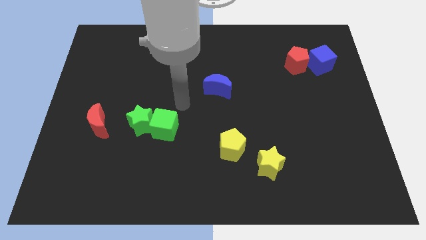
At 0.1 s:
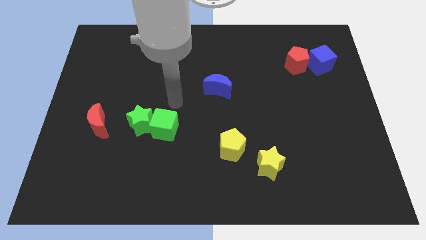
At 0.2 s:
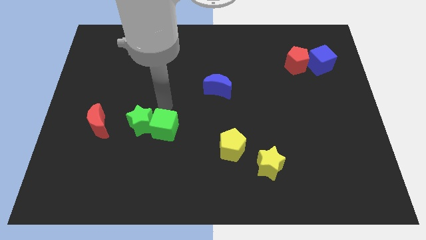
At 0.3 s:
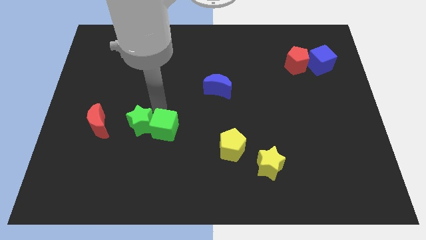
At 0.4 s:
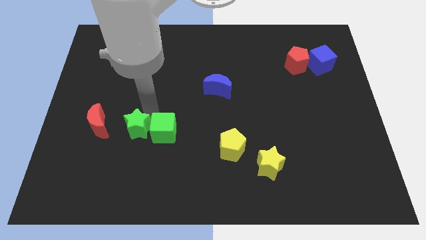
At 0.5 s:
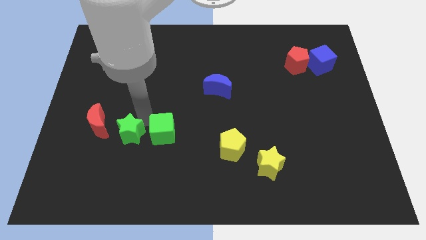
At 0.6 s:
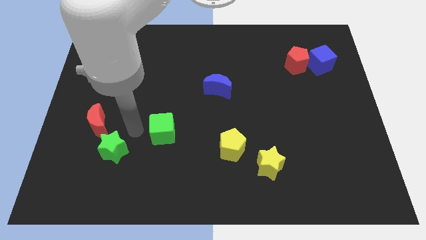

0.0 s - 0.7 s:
move the green cube away from the green star

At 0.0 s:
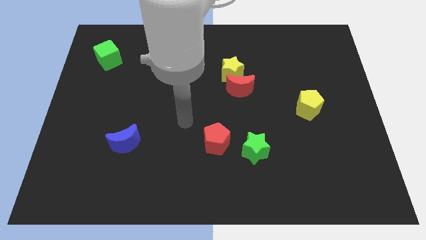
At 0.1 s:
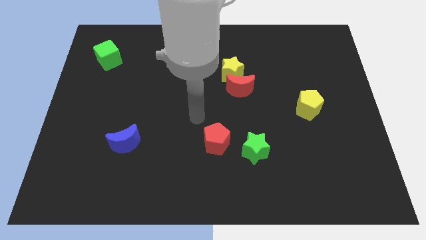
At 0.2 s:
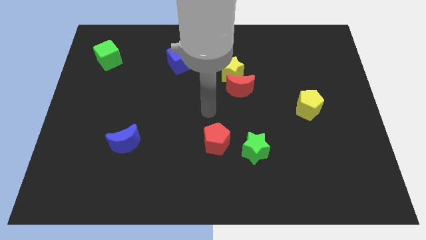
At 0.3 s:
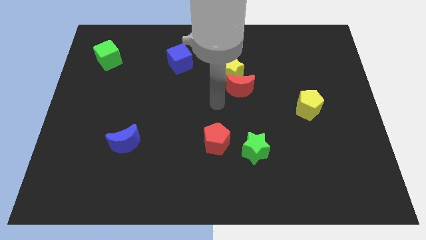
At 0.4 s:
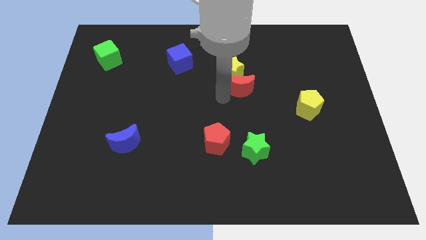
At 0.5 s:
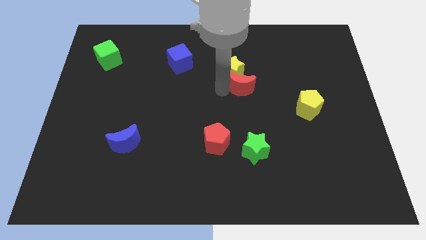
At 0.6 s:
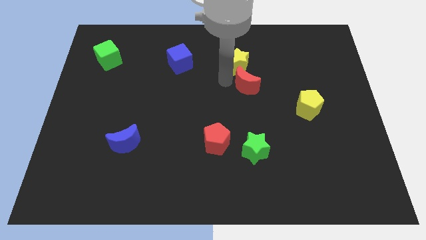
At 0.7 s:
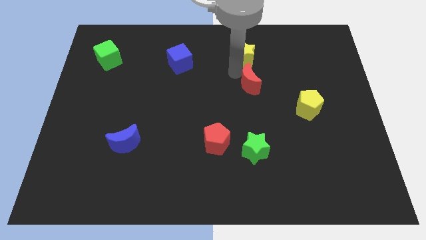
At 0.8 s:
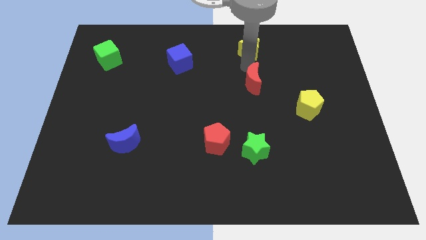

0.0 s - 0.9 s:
separate the red moon from the yellow star

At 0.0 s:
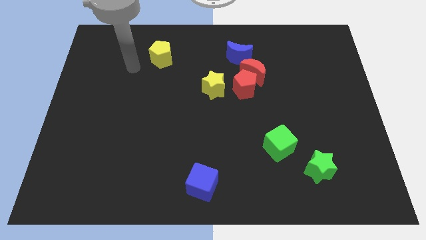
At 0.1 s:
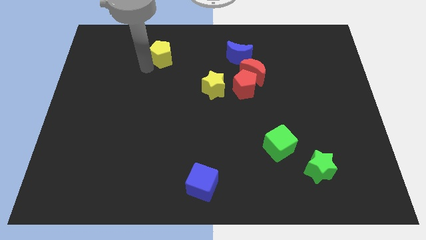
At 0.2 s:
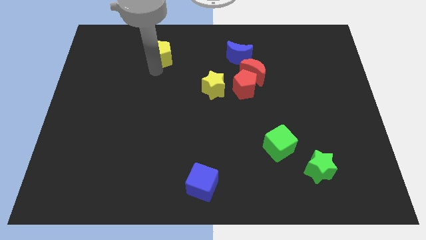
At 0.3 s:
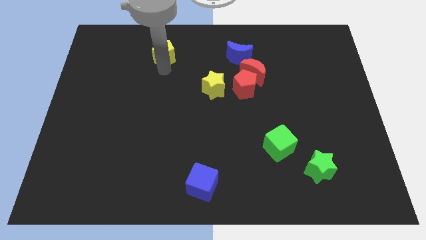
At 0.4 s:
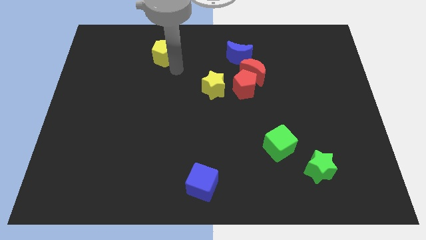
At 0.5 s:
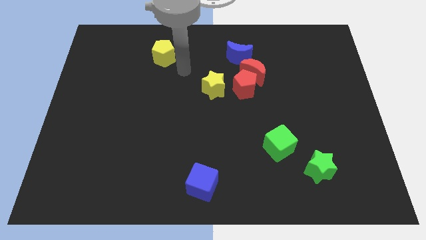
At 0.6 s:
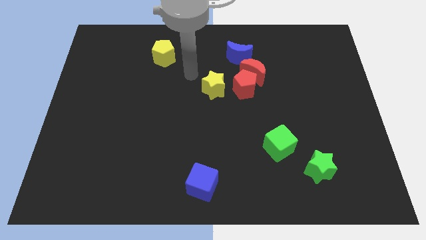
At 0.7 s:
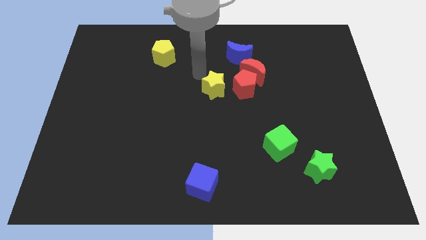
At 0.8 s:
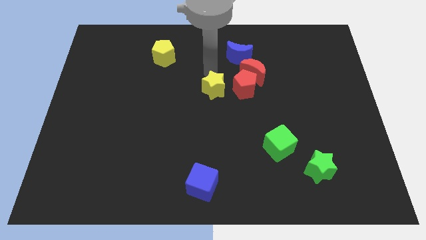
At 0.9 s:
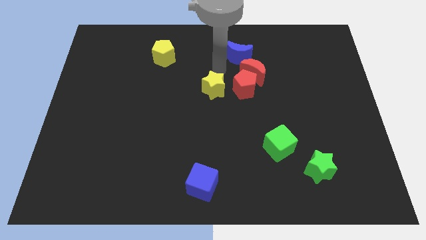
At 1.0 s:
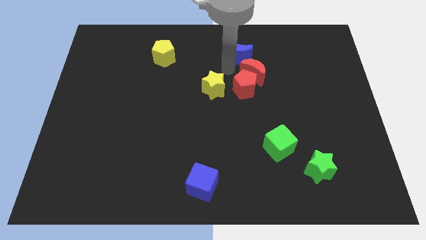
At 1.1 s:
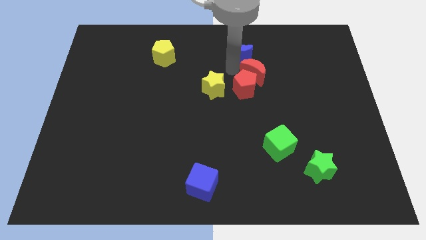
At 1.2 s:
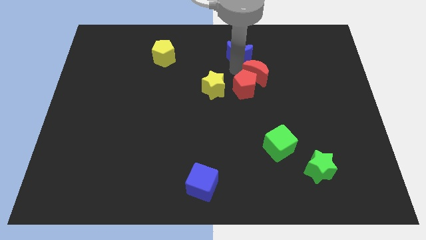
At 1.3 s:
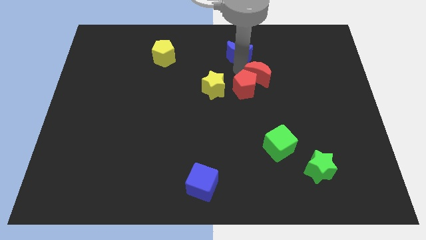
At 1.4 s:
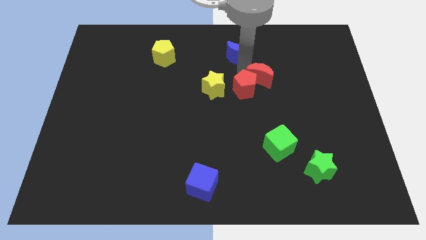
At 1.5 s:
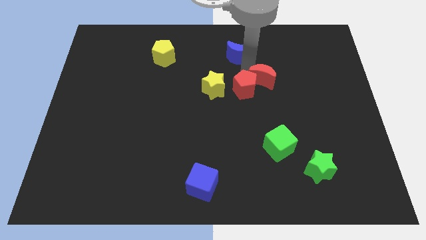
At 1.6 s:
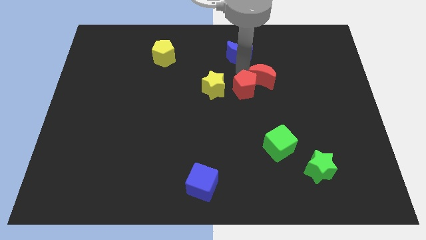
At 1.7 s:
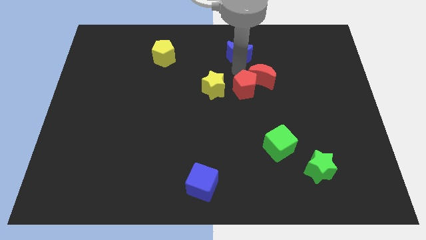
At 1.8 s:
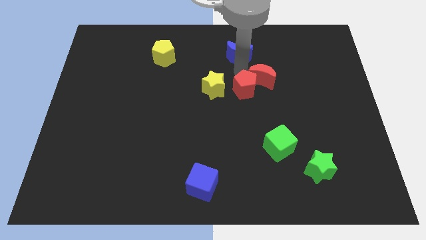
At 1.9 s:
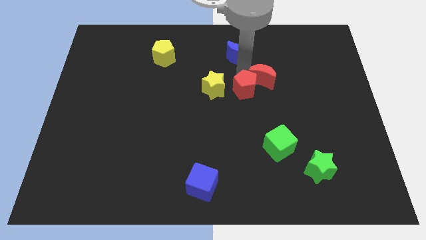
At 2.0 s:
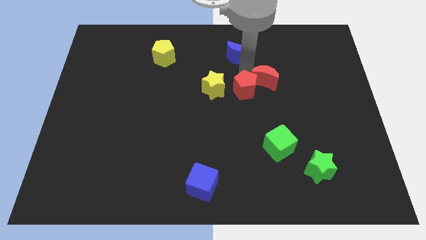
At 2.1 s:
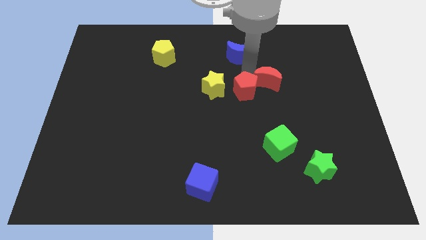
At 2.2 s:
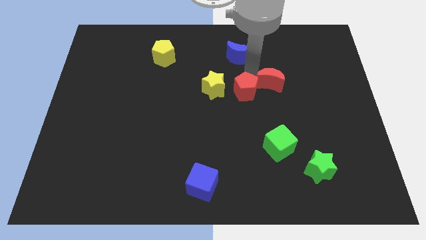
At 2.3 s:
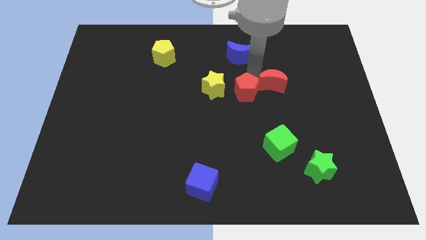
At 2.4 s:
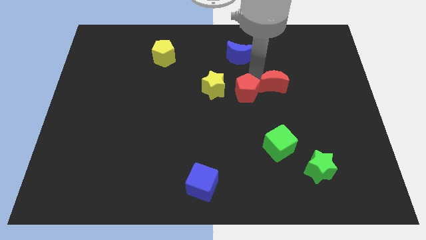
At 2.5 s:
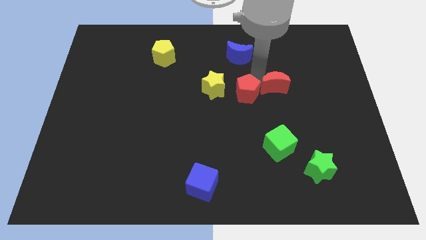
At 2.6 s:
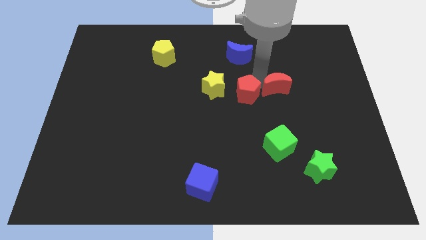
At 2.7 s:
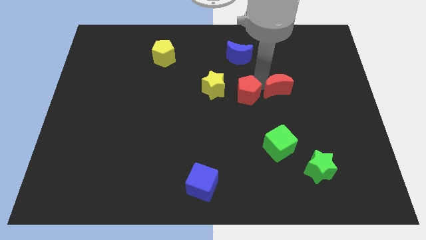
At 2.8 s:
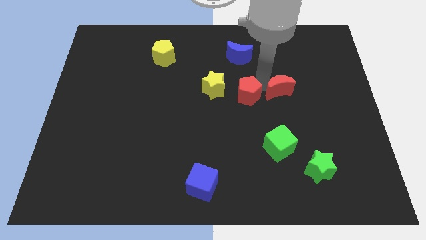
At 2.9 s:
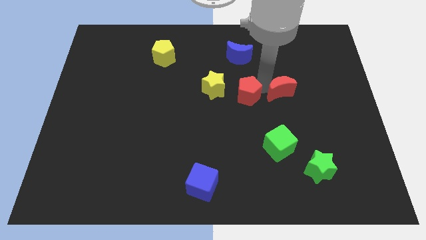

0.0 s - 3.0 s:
pull the red moon apart from the red pentagon and blue moon

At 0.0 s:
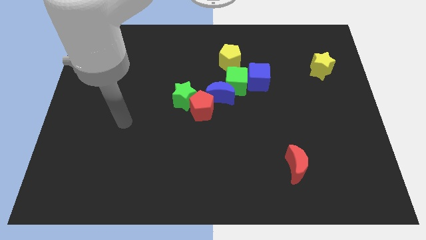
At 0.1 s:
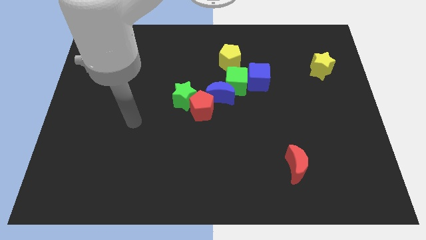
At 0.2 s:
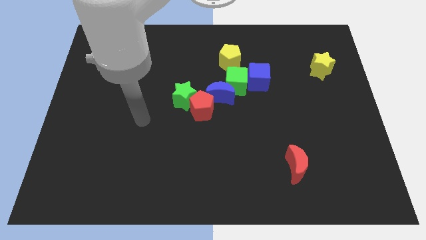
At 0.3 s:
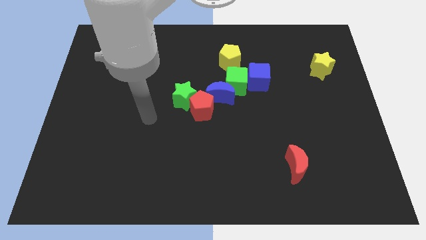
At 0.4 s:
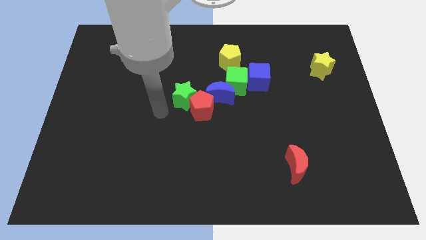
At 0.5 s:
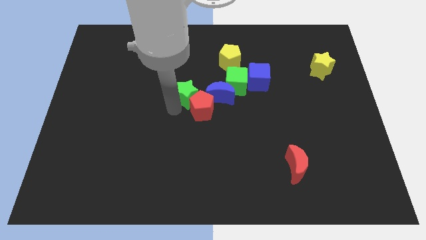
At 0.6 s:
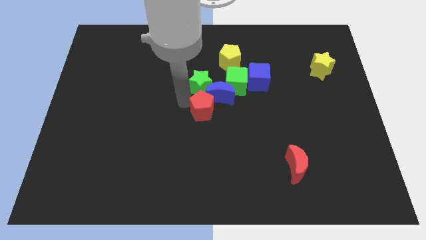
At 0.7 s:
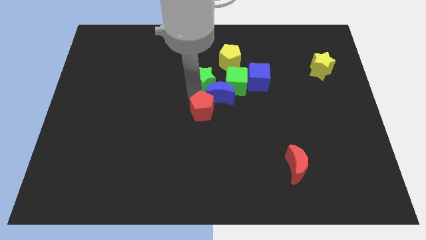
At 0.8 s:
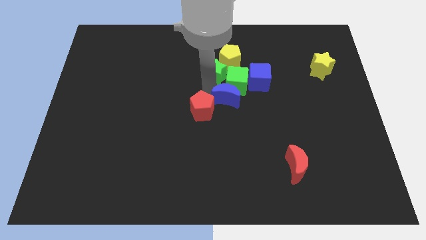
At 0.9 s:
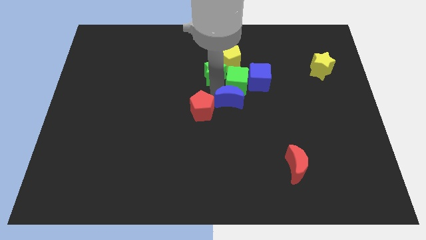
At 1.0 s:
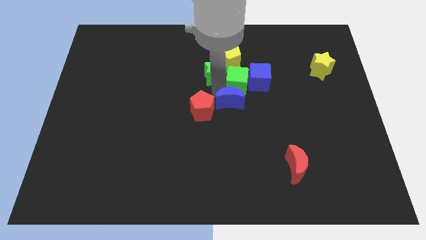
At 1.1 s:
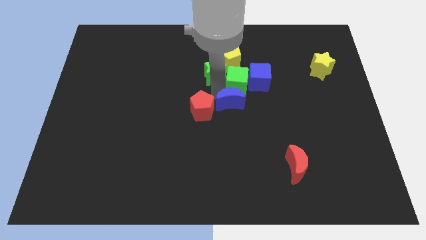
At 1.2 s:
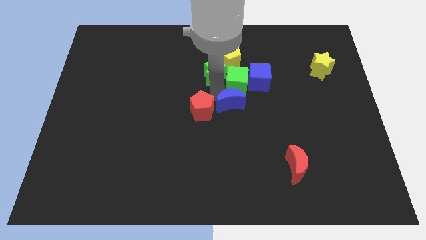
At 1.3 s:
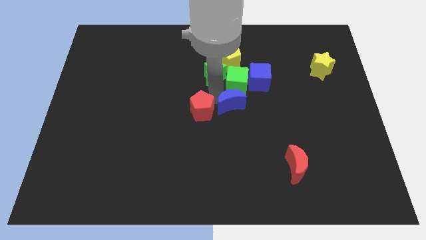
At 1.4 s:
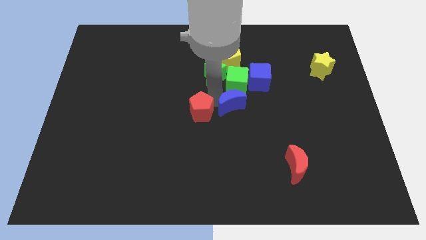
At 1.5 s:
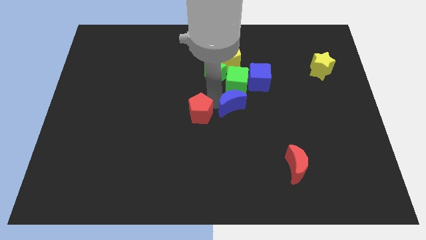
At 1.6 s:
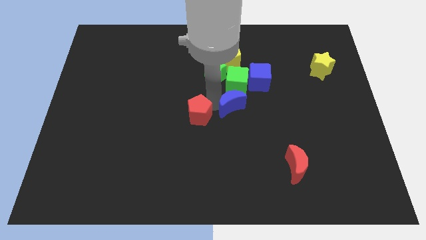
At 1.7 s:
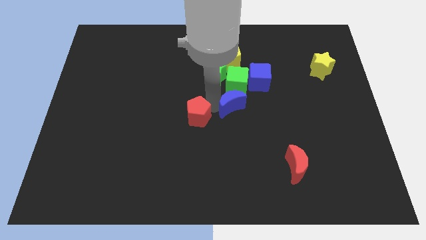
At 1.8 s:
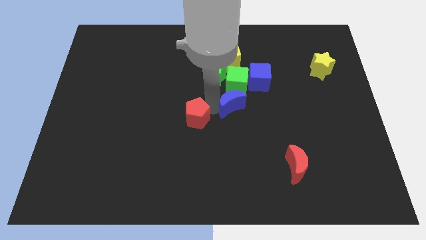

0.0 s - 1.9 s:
separate the red pentagon from the green star and blue moon

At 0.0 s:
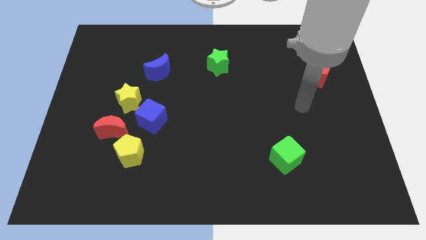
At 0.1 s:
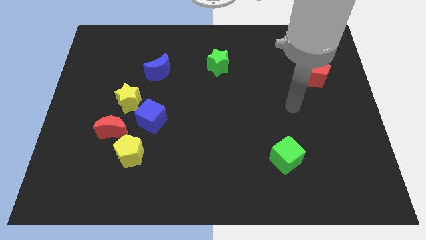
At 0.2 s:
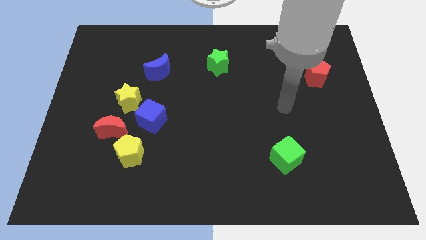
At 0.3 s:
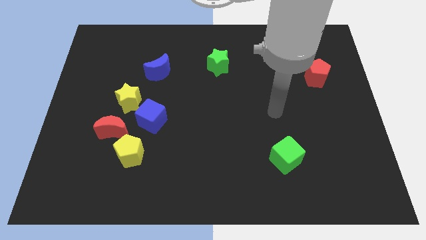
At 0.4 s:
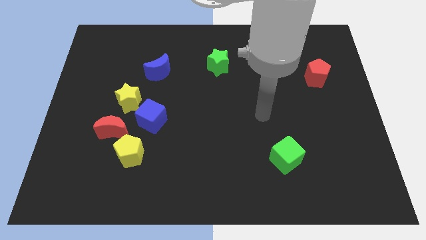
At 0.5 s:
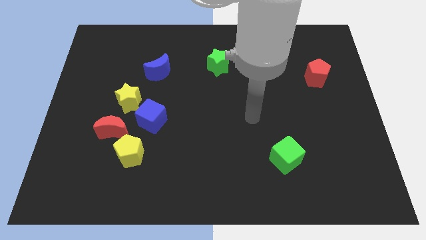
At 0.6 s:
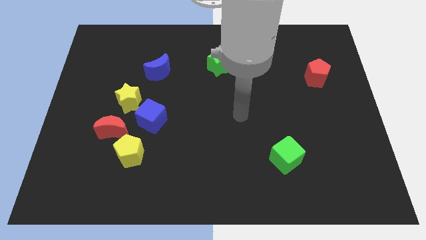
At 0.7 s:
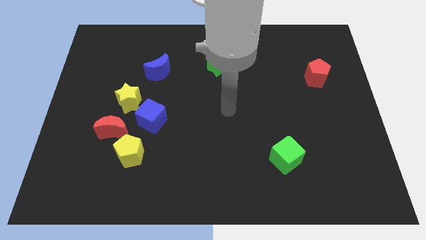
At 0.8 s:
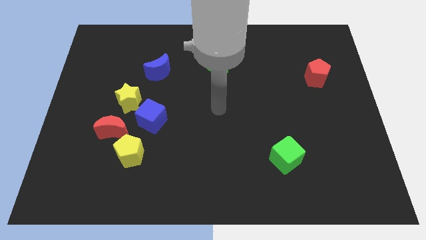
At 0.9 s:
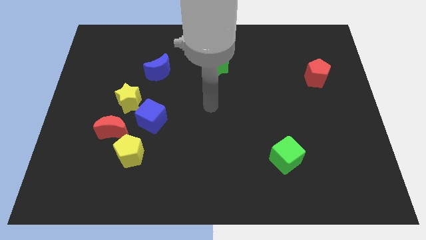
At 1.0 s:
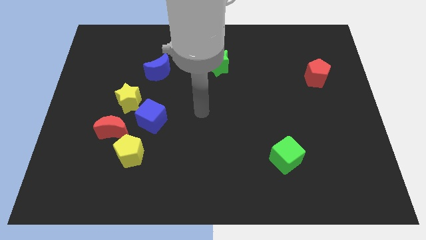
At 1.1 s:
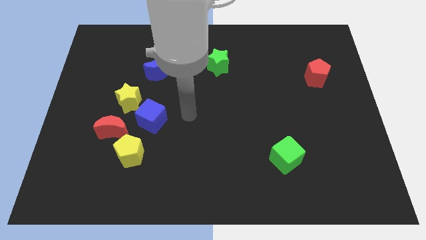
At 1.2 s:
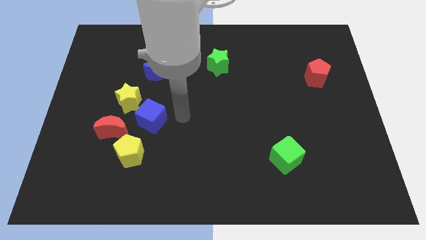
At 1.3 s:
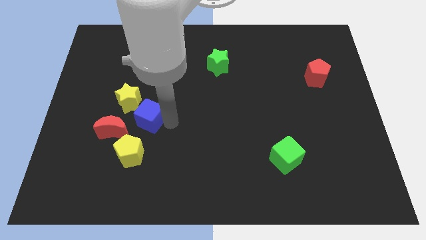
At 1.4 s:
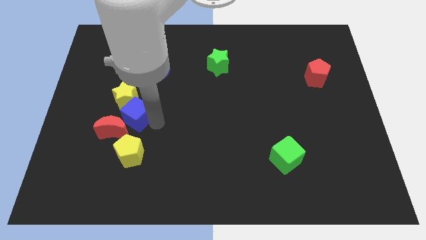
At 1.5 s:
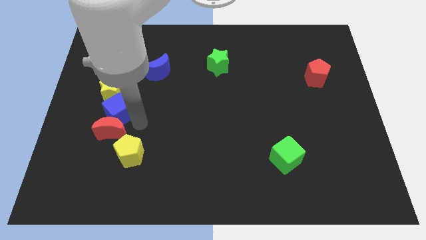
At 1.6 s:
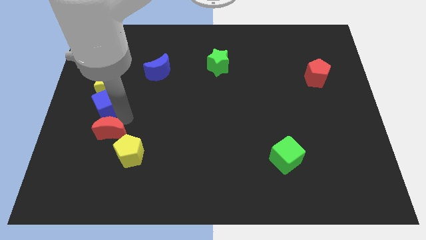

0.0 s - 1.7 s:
move the yellow star away from the blue cube and red moon

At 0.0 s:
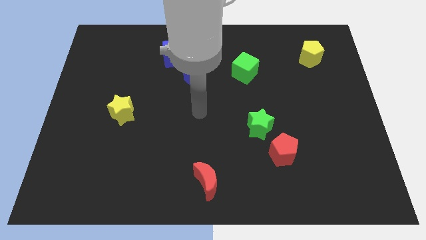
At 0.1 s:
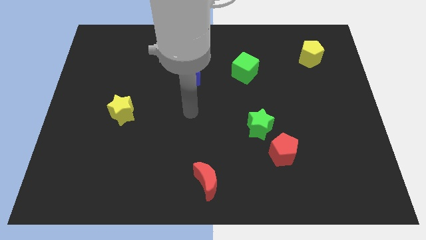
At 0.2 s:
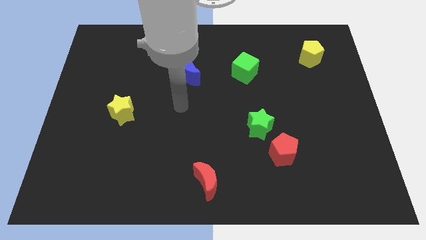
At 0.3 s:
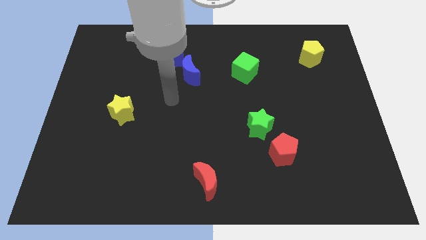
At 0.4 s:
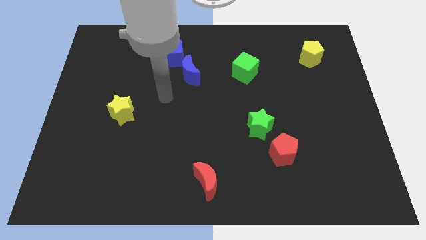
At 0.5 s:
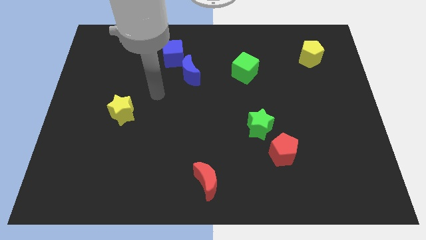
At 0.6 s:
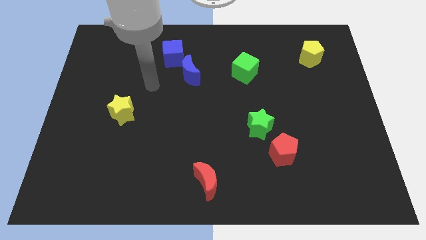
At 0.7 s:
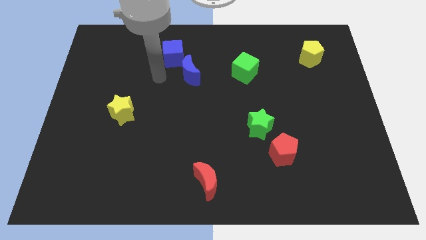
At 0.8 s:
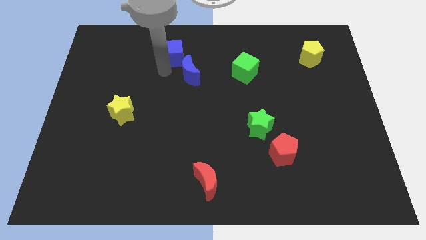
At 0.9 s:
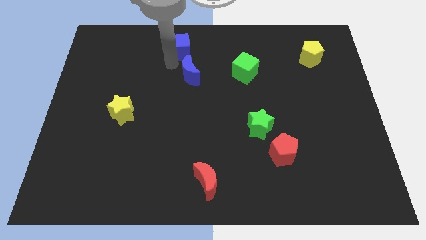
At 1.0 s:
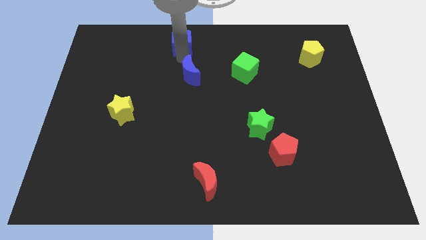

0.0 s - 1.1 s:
move the blue moon away from the blue cube
